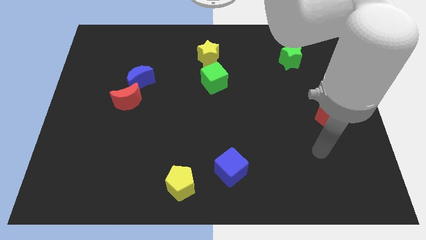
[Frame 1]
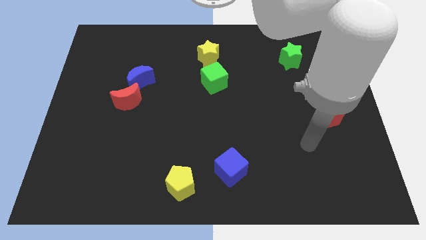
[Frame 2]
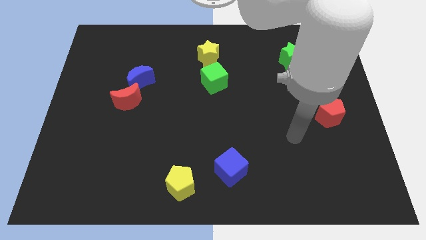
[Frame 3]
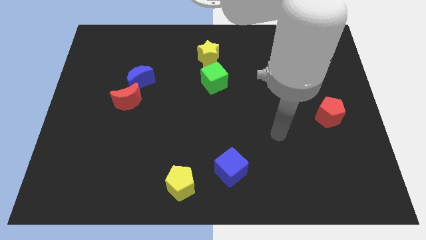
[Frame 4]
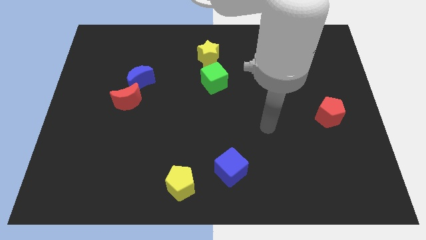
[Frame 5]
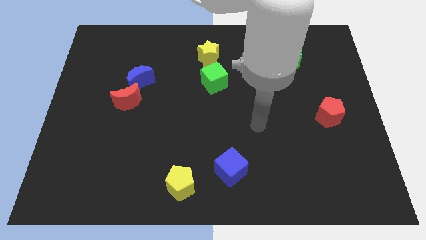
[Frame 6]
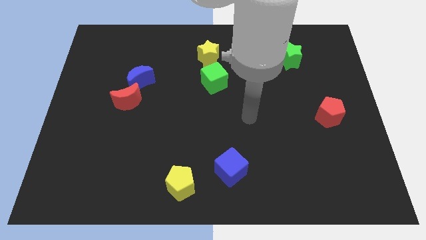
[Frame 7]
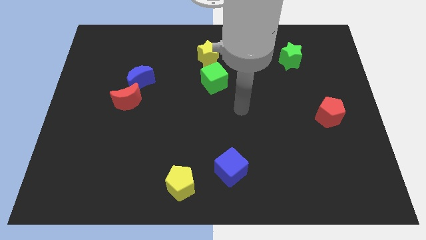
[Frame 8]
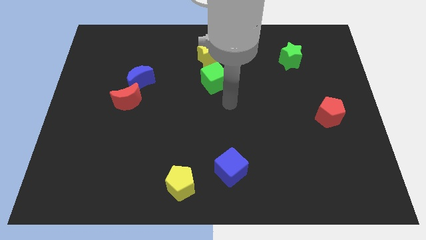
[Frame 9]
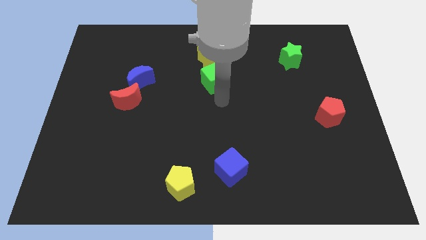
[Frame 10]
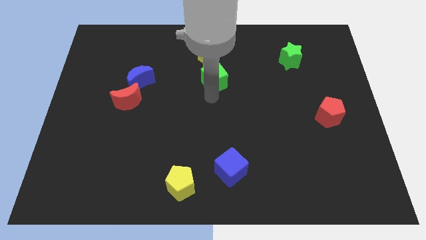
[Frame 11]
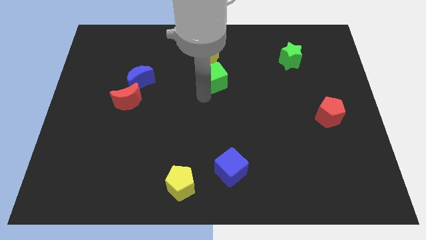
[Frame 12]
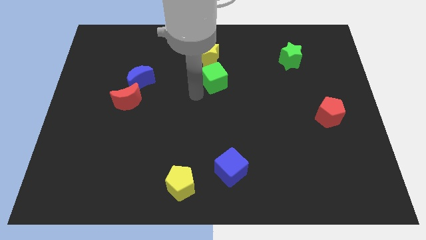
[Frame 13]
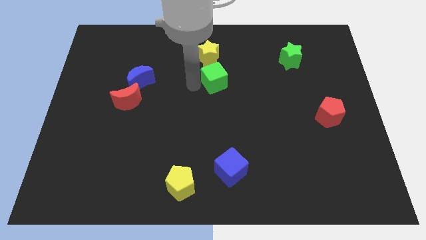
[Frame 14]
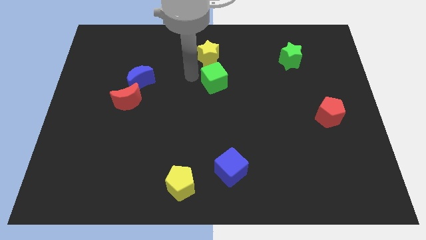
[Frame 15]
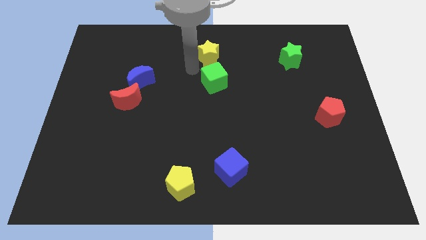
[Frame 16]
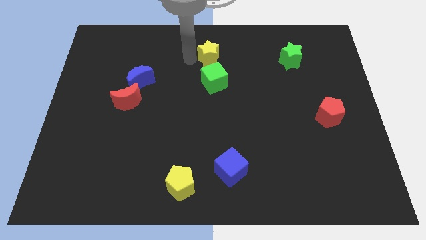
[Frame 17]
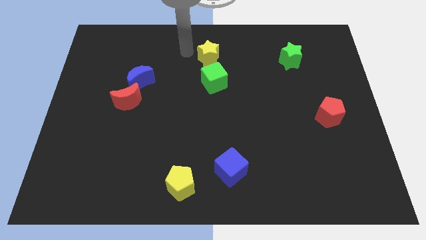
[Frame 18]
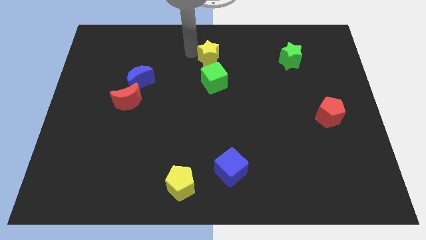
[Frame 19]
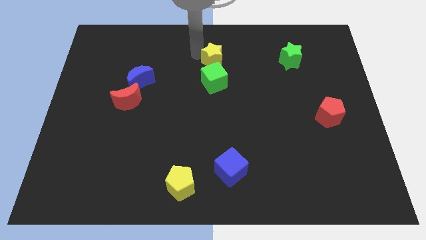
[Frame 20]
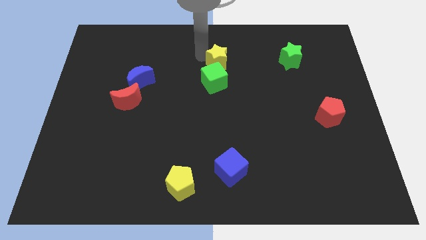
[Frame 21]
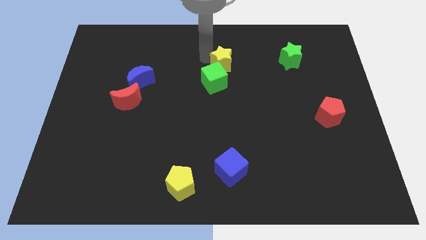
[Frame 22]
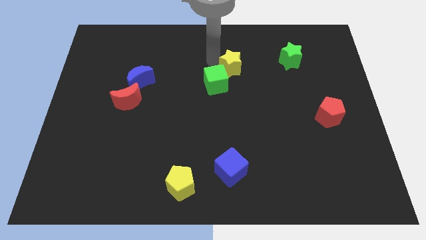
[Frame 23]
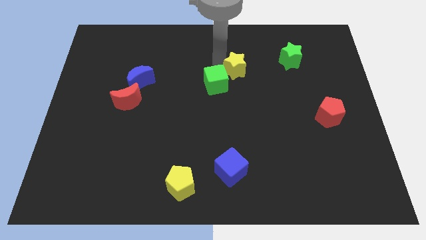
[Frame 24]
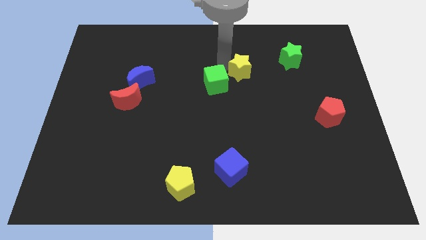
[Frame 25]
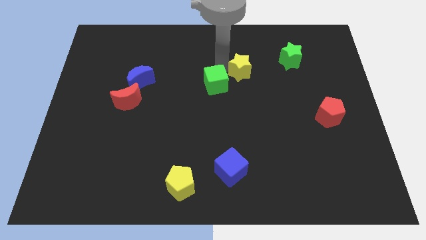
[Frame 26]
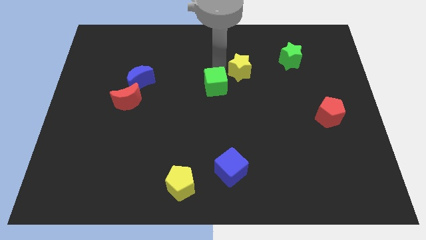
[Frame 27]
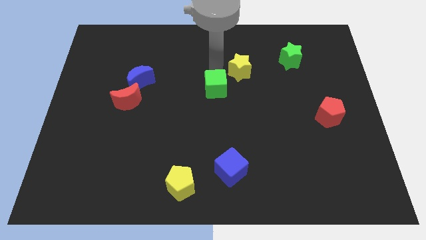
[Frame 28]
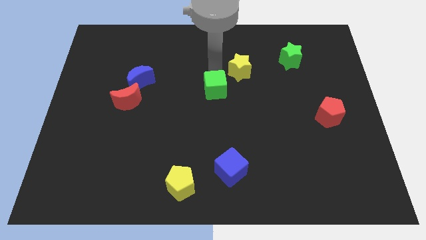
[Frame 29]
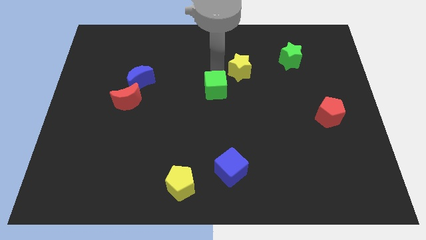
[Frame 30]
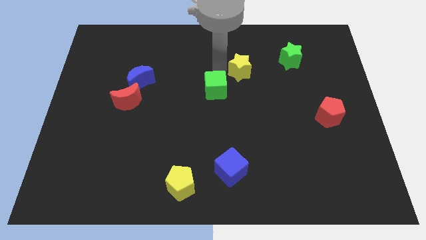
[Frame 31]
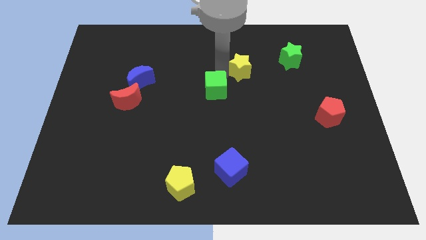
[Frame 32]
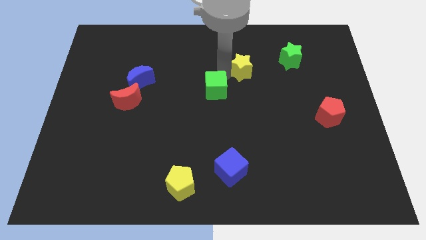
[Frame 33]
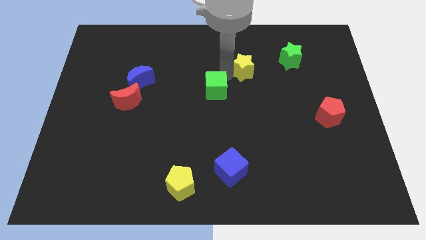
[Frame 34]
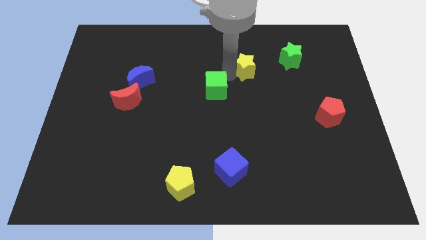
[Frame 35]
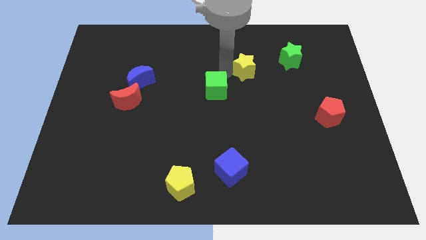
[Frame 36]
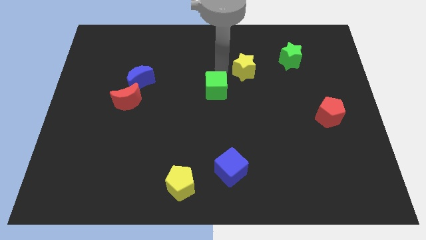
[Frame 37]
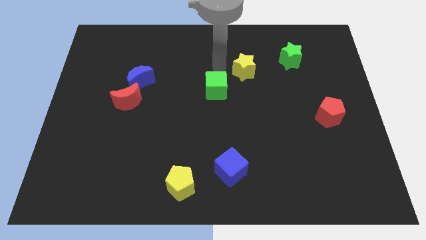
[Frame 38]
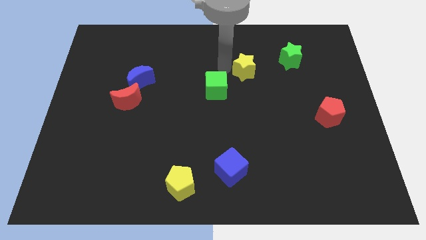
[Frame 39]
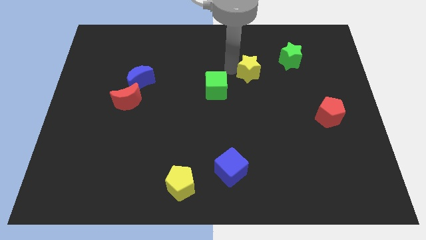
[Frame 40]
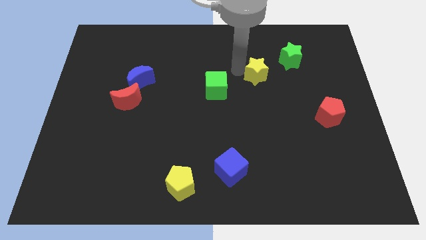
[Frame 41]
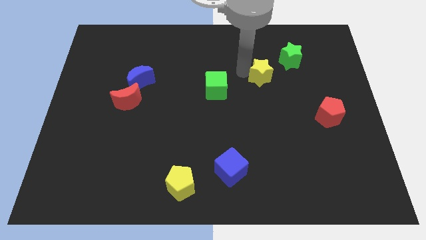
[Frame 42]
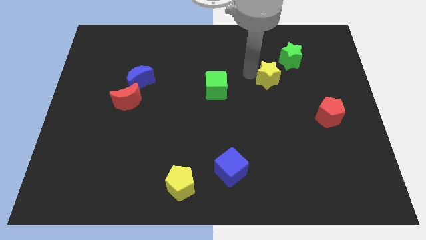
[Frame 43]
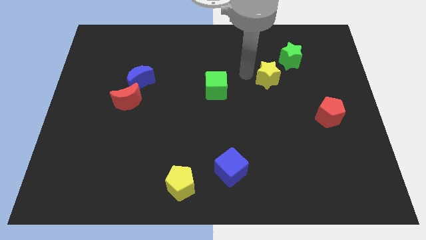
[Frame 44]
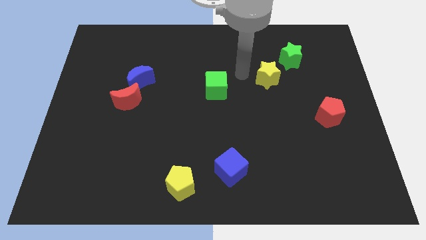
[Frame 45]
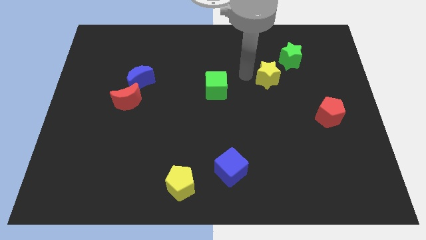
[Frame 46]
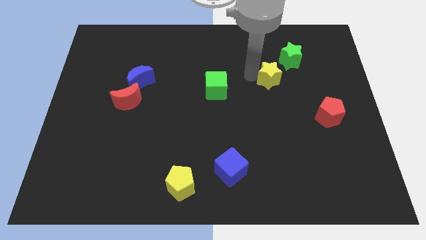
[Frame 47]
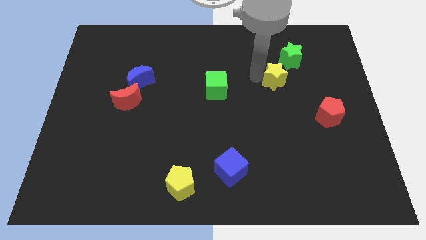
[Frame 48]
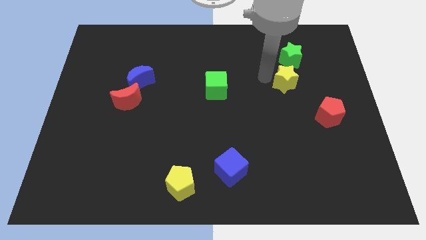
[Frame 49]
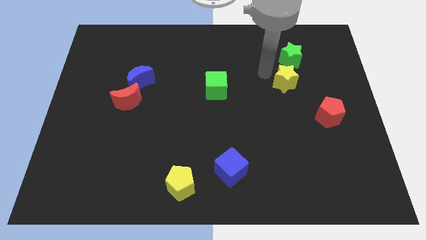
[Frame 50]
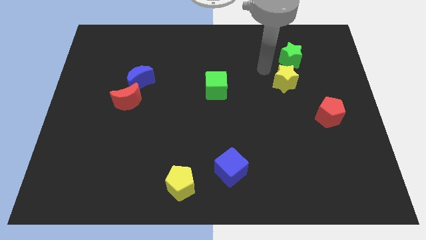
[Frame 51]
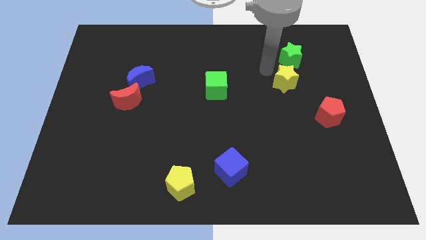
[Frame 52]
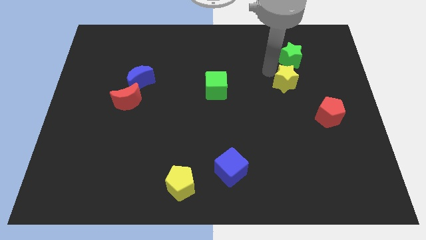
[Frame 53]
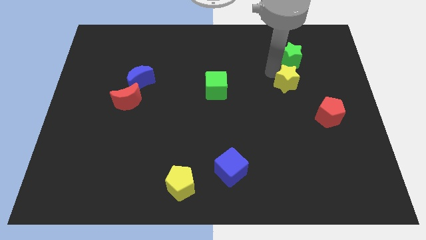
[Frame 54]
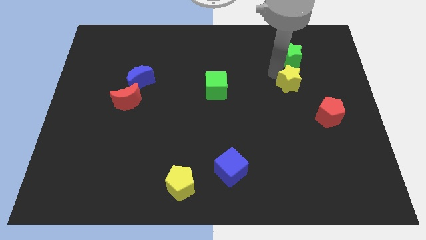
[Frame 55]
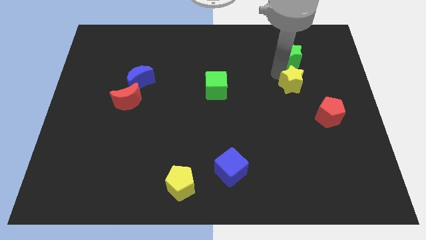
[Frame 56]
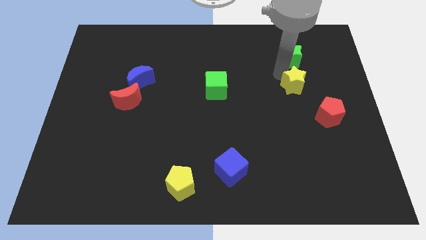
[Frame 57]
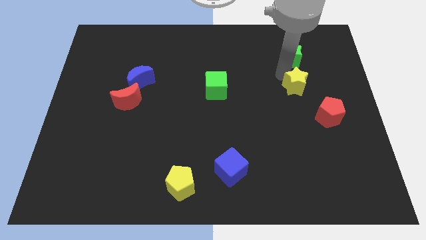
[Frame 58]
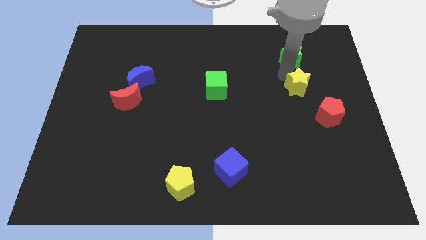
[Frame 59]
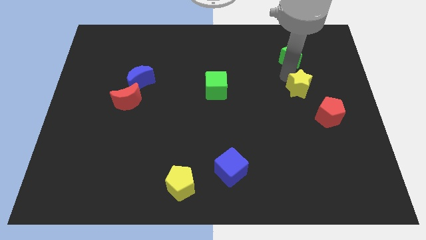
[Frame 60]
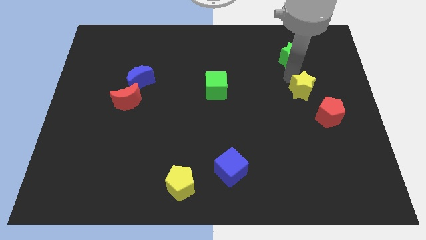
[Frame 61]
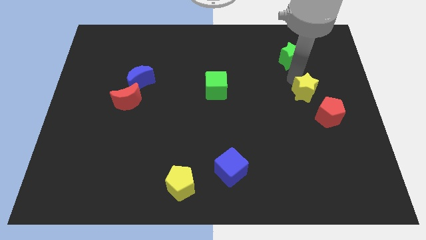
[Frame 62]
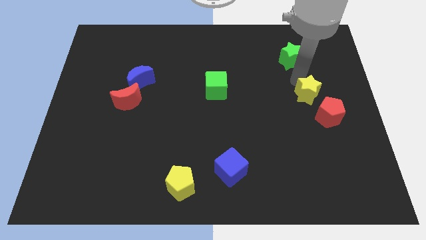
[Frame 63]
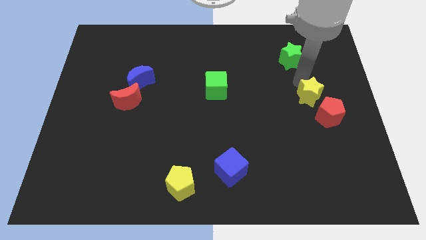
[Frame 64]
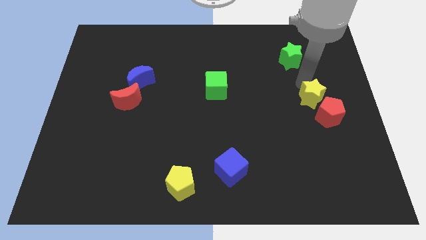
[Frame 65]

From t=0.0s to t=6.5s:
move the yellow star close to the red pentagon

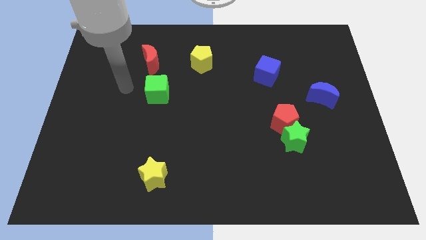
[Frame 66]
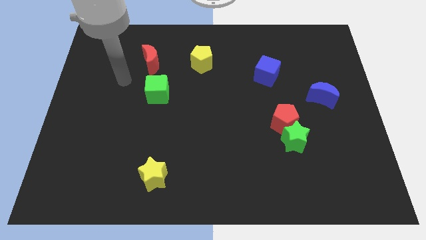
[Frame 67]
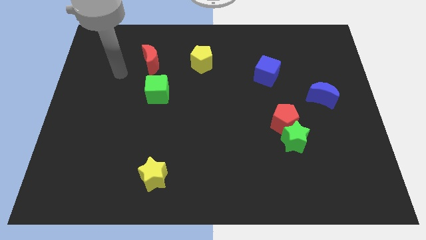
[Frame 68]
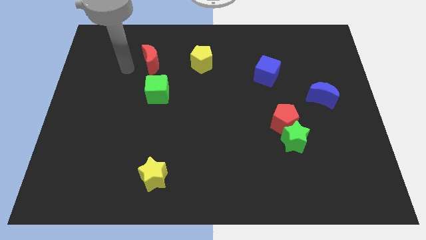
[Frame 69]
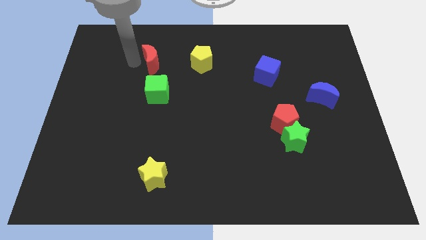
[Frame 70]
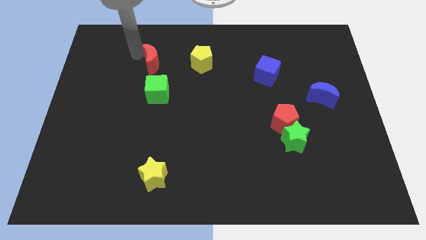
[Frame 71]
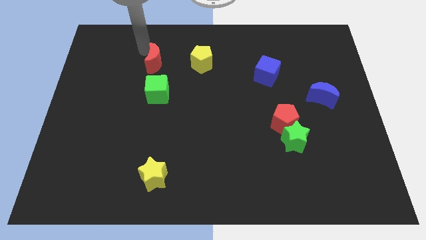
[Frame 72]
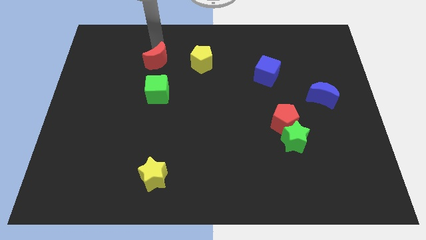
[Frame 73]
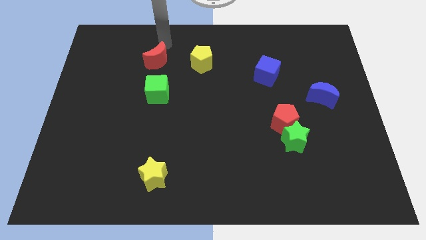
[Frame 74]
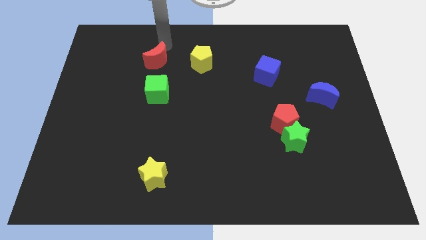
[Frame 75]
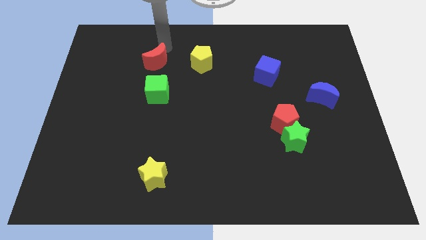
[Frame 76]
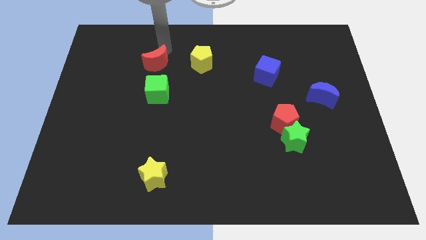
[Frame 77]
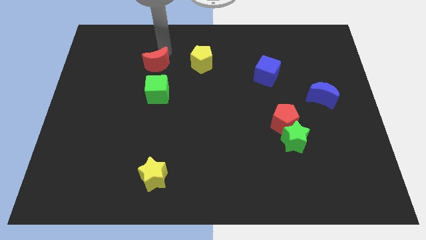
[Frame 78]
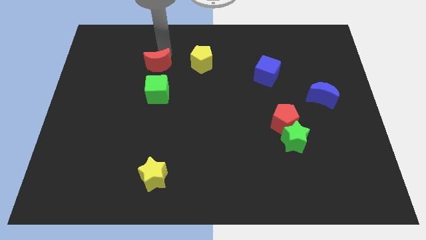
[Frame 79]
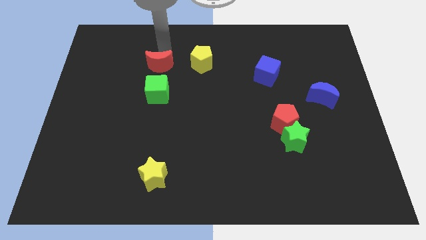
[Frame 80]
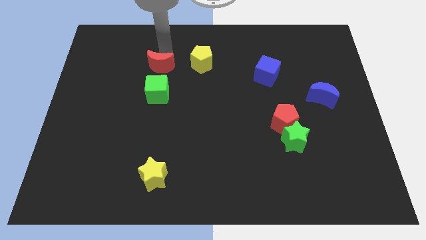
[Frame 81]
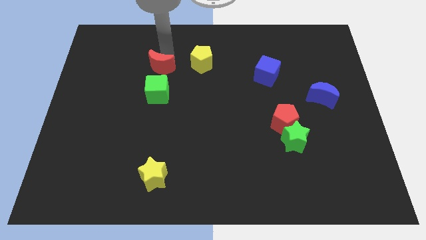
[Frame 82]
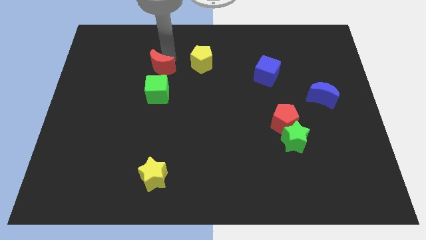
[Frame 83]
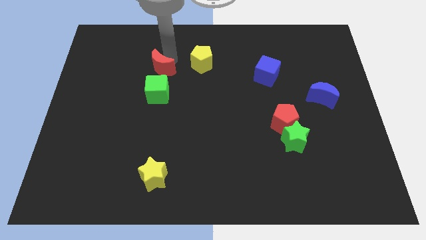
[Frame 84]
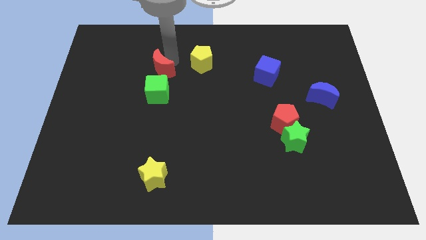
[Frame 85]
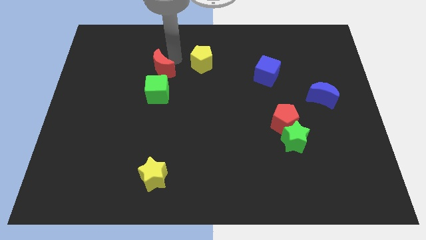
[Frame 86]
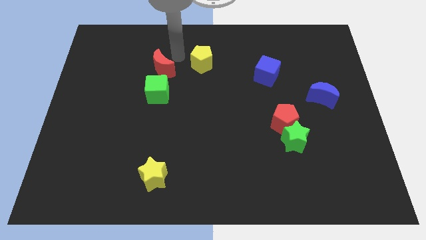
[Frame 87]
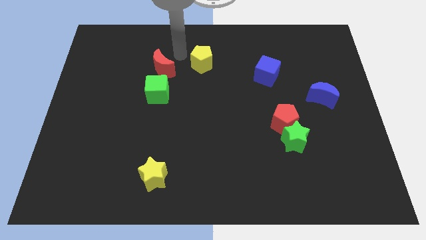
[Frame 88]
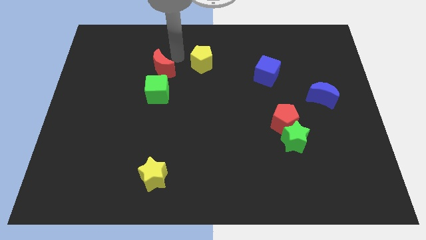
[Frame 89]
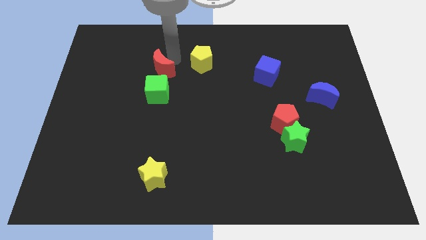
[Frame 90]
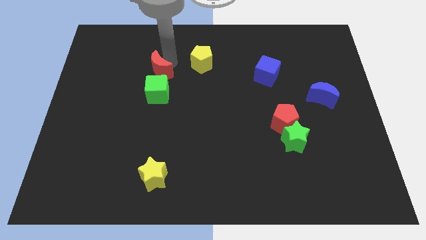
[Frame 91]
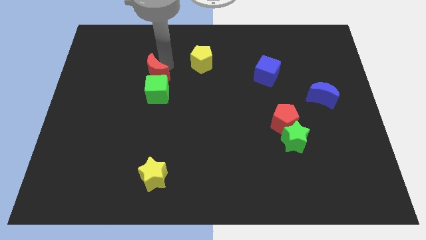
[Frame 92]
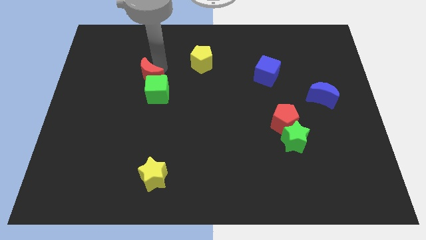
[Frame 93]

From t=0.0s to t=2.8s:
push the red moon to the green cube
